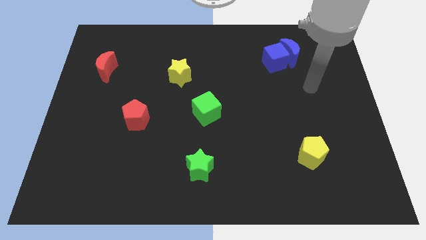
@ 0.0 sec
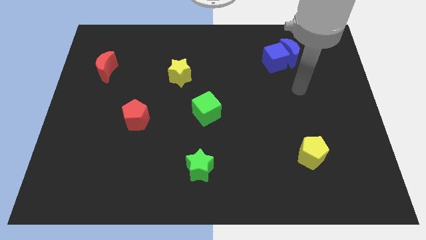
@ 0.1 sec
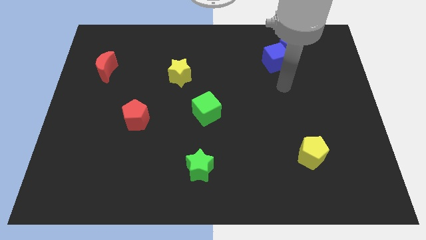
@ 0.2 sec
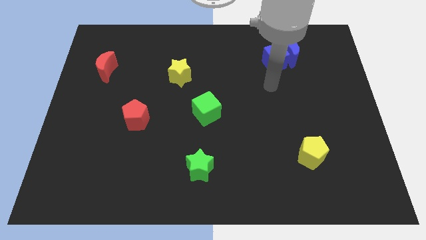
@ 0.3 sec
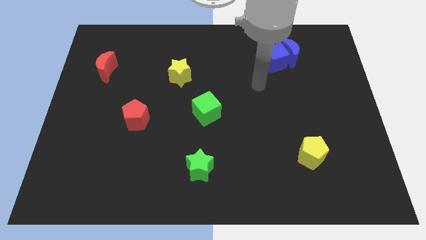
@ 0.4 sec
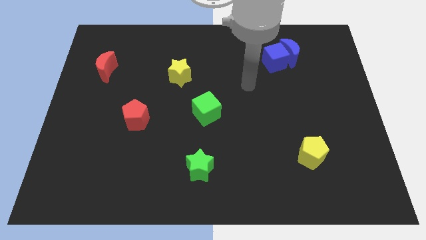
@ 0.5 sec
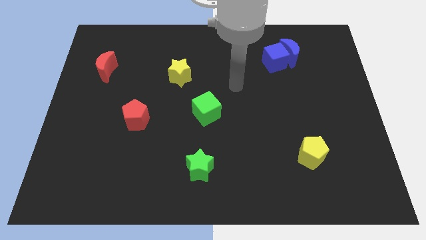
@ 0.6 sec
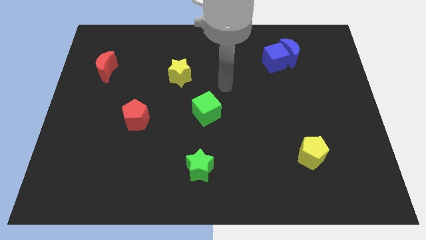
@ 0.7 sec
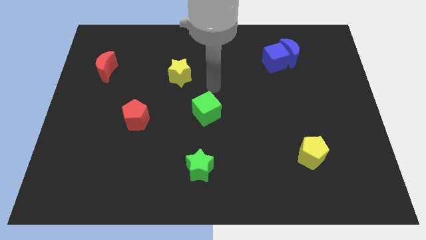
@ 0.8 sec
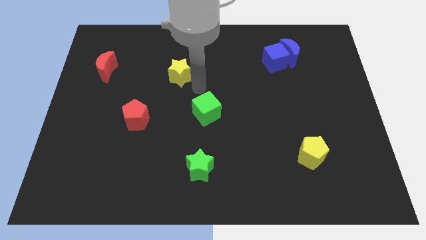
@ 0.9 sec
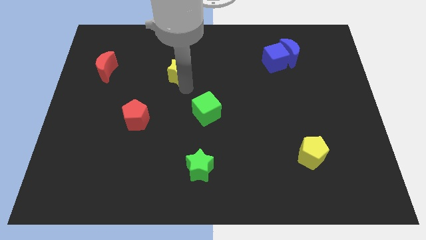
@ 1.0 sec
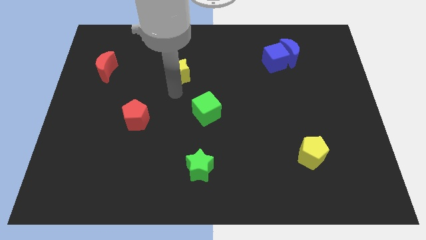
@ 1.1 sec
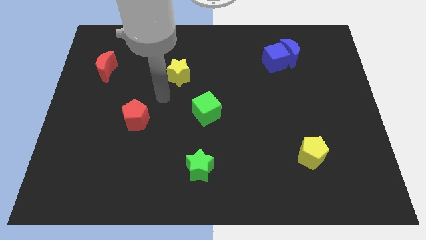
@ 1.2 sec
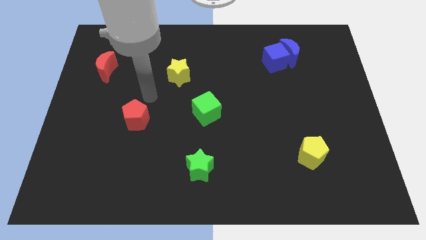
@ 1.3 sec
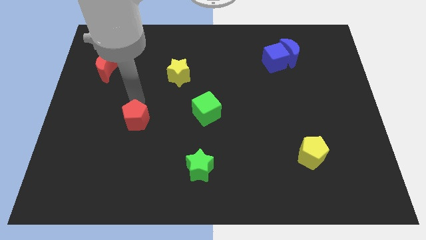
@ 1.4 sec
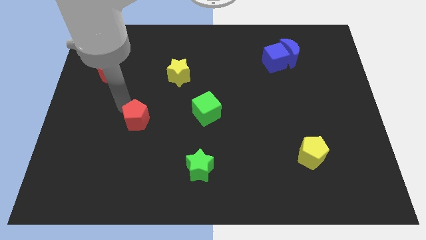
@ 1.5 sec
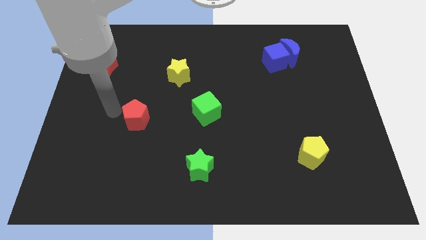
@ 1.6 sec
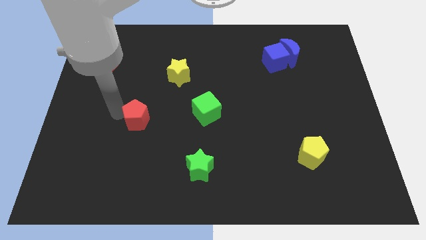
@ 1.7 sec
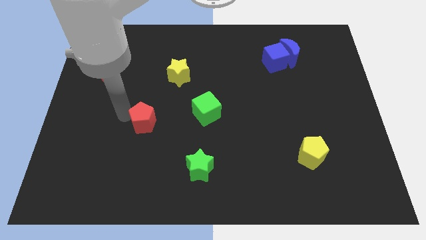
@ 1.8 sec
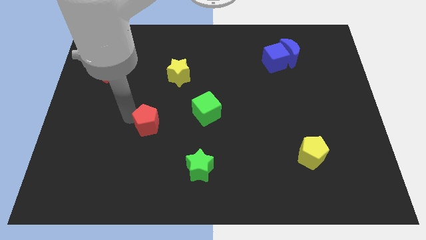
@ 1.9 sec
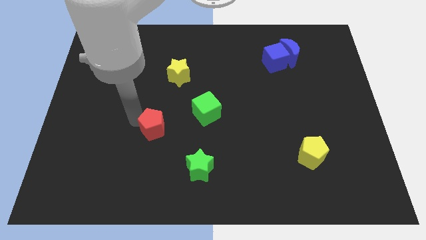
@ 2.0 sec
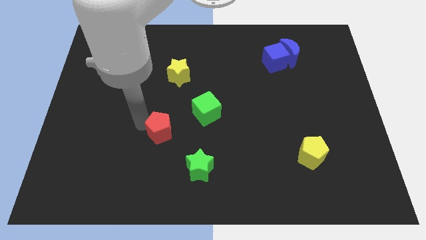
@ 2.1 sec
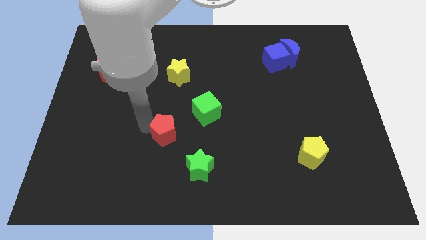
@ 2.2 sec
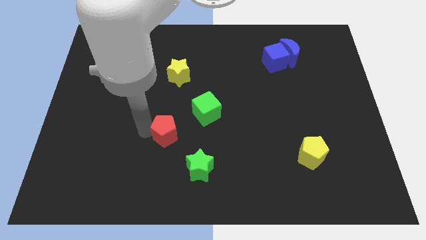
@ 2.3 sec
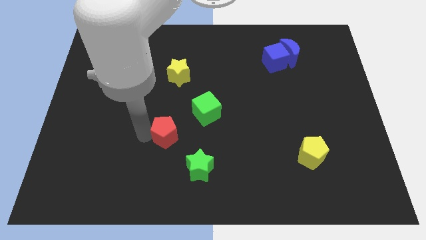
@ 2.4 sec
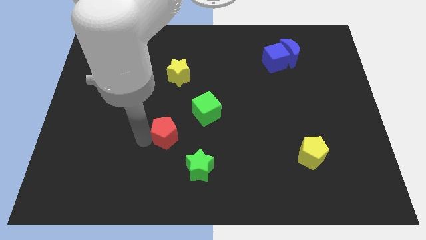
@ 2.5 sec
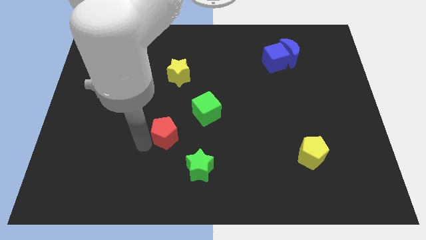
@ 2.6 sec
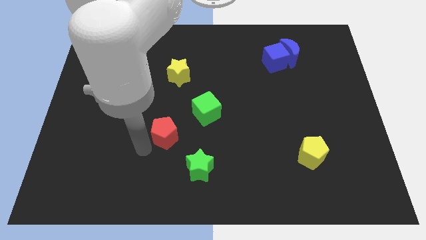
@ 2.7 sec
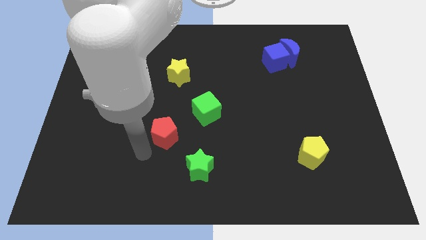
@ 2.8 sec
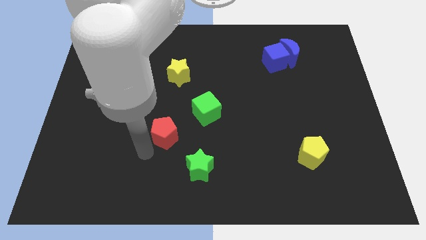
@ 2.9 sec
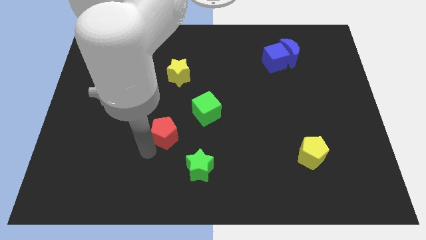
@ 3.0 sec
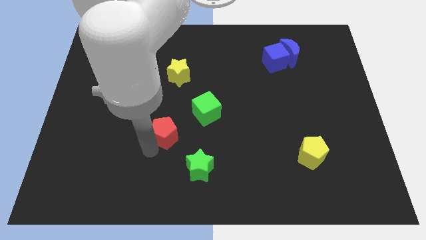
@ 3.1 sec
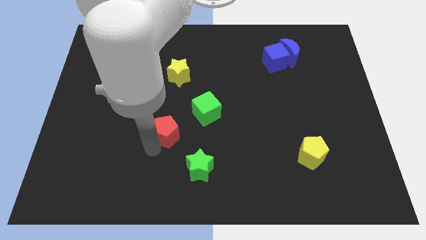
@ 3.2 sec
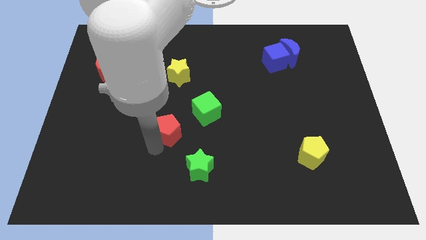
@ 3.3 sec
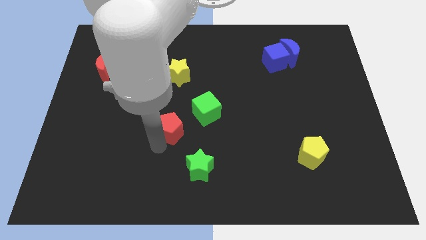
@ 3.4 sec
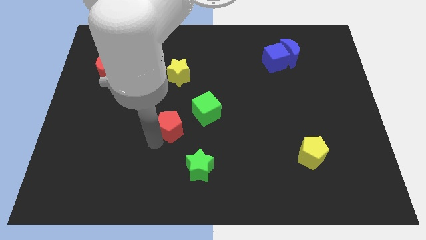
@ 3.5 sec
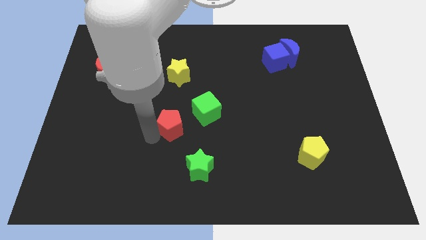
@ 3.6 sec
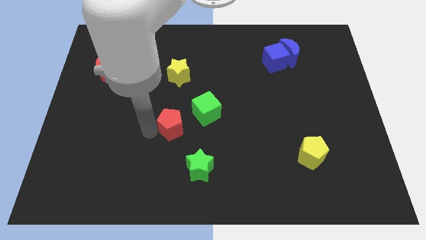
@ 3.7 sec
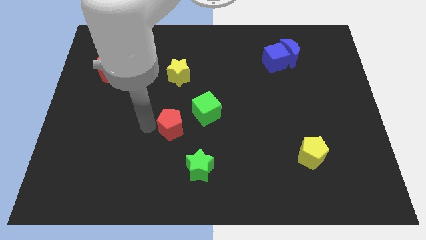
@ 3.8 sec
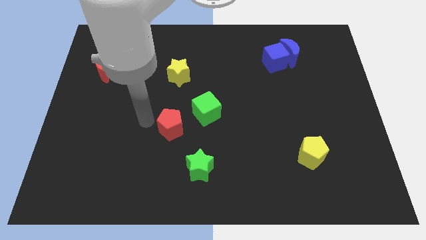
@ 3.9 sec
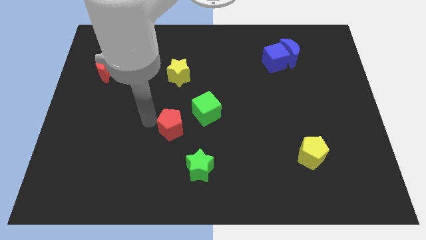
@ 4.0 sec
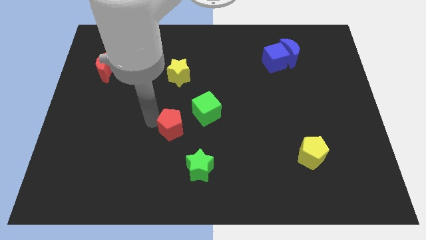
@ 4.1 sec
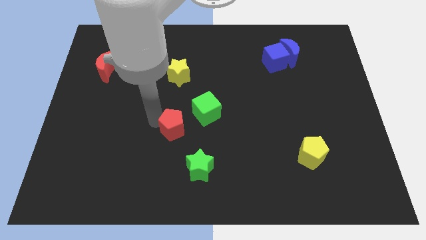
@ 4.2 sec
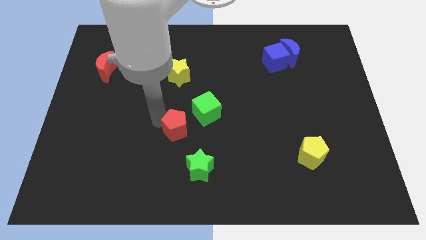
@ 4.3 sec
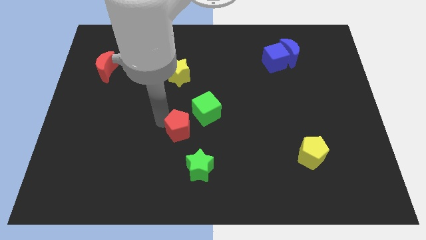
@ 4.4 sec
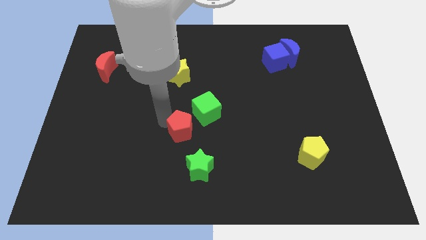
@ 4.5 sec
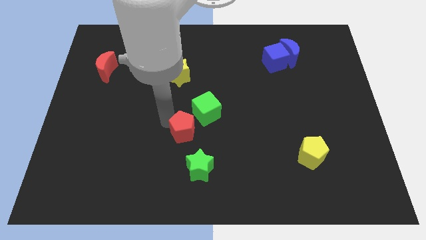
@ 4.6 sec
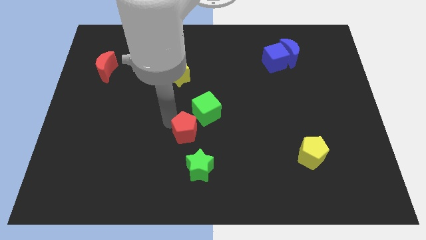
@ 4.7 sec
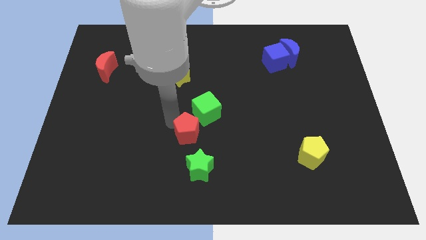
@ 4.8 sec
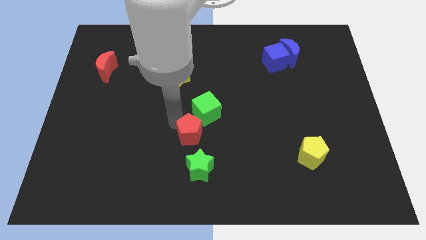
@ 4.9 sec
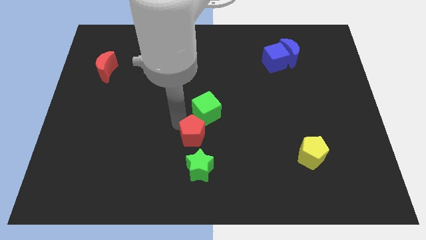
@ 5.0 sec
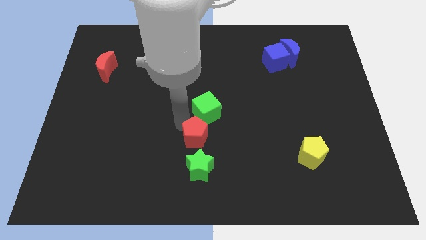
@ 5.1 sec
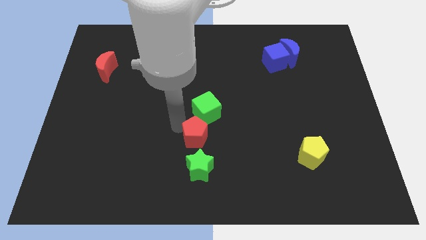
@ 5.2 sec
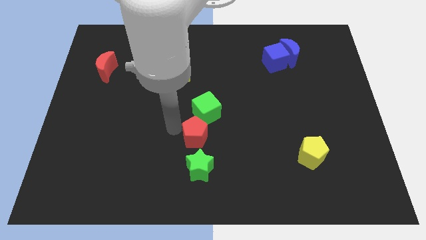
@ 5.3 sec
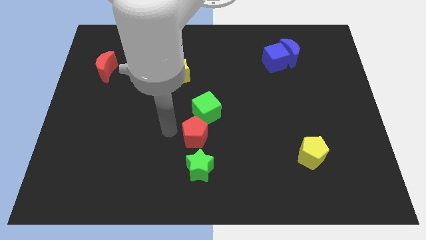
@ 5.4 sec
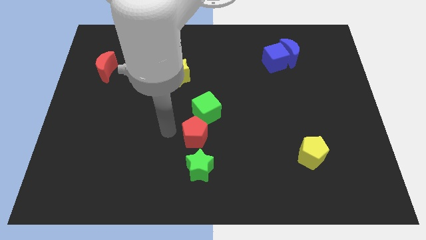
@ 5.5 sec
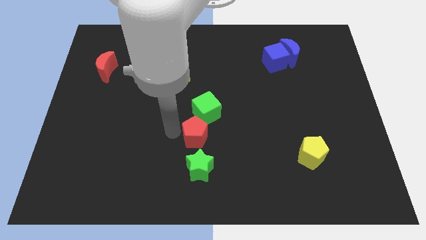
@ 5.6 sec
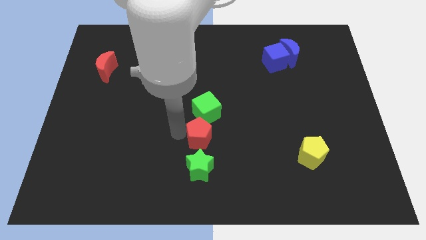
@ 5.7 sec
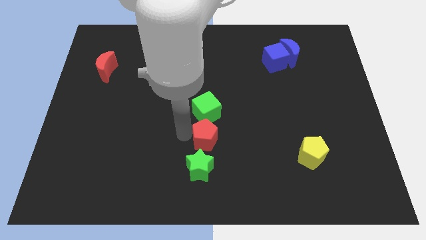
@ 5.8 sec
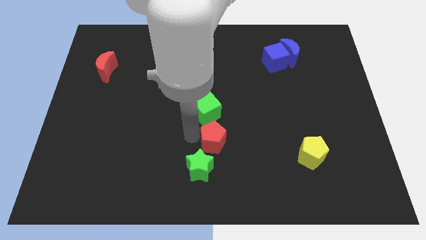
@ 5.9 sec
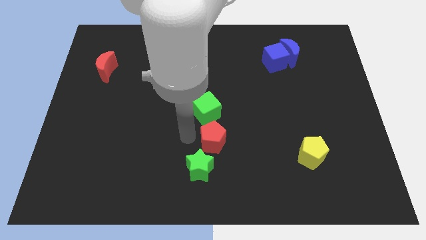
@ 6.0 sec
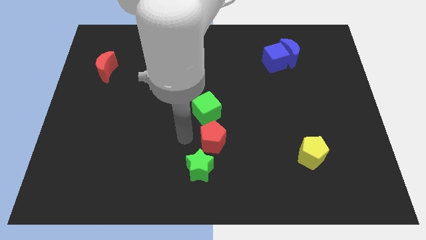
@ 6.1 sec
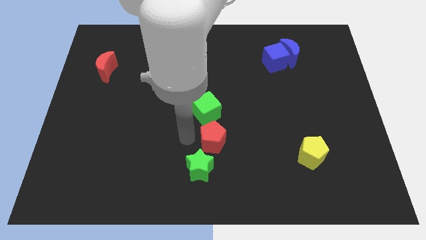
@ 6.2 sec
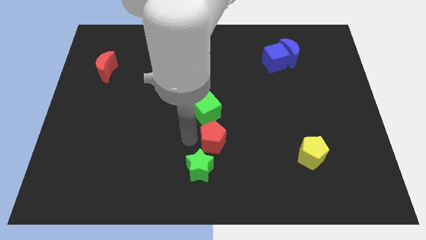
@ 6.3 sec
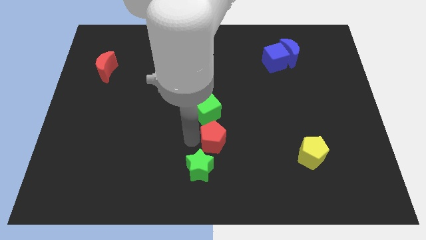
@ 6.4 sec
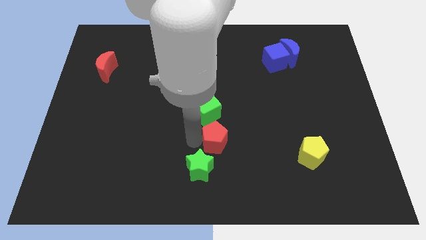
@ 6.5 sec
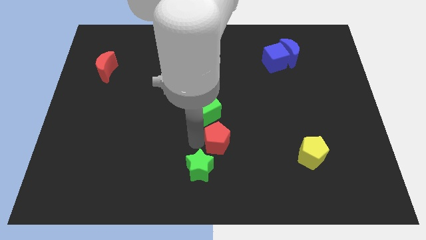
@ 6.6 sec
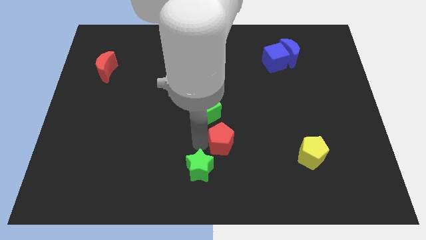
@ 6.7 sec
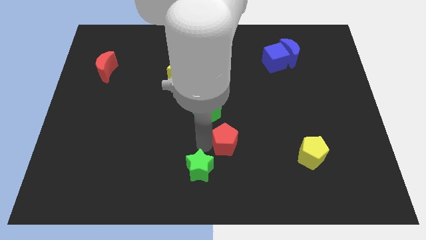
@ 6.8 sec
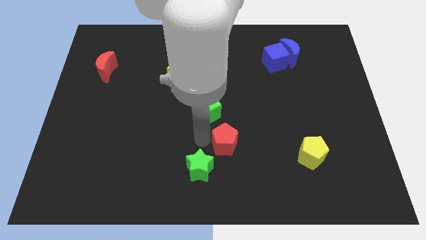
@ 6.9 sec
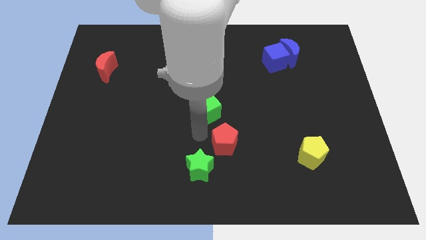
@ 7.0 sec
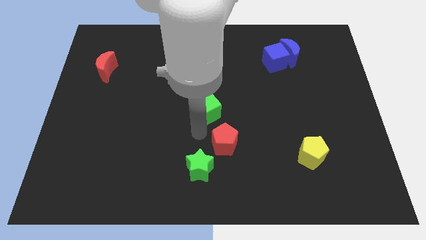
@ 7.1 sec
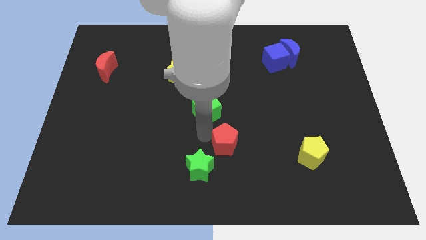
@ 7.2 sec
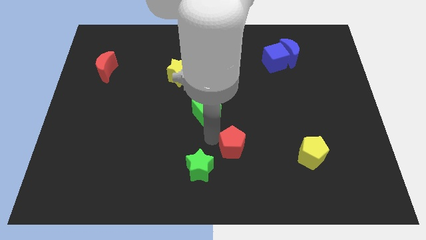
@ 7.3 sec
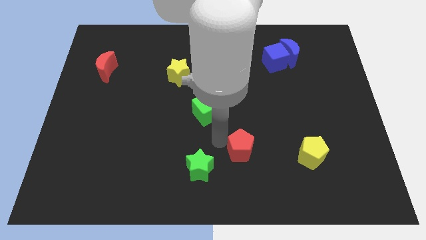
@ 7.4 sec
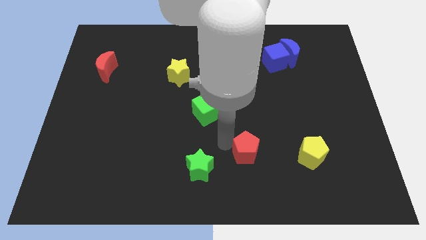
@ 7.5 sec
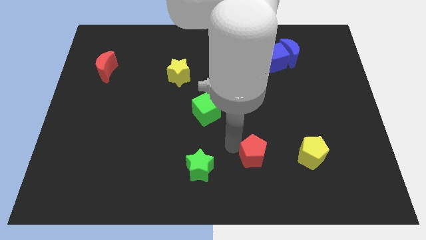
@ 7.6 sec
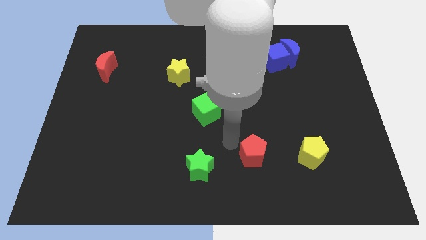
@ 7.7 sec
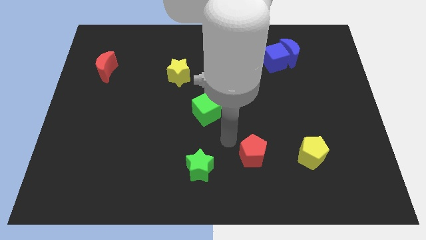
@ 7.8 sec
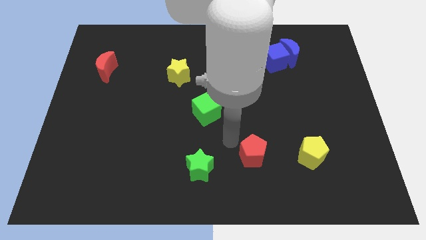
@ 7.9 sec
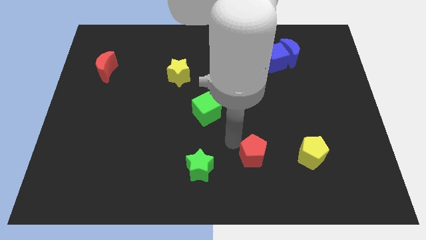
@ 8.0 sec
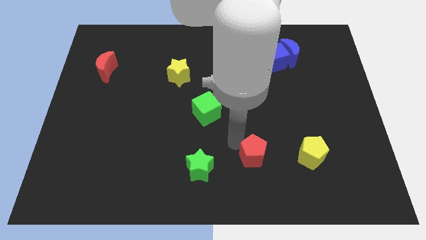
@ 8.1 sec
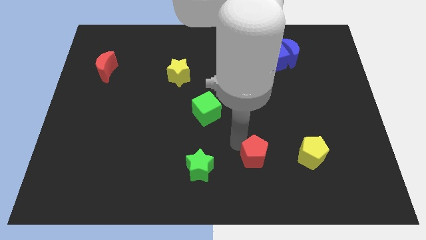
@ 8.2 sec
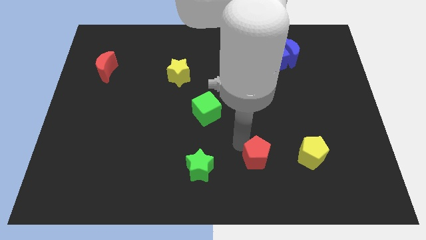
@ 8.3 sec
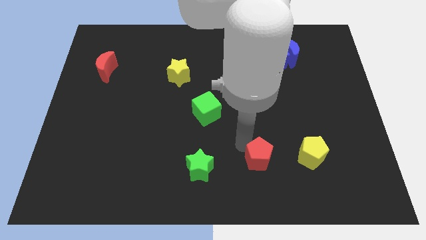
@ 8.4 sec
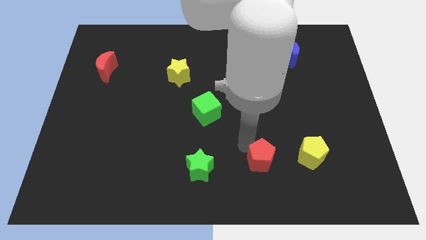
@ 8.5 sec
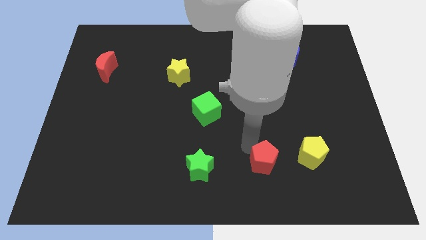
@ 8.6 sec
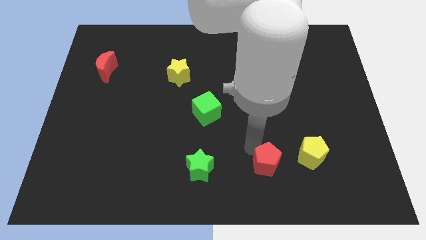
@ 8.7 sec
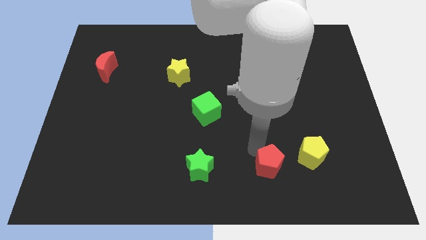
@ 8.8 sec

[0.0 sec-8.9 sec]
move the red pentagon diagonally down and to the left of the yellow pentagon
